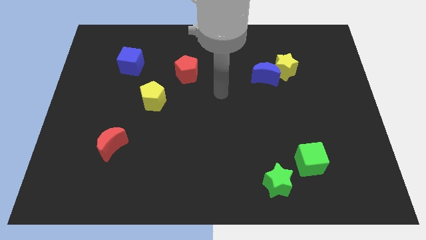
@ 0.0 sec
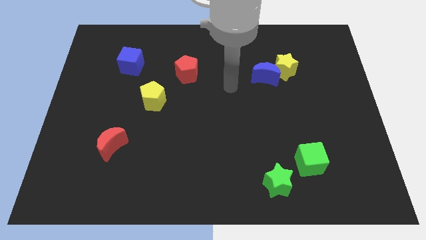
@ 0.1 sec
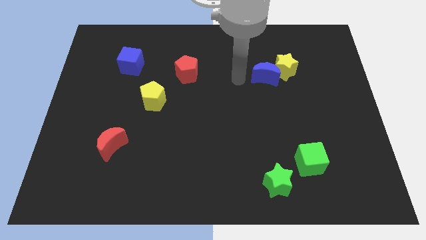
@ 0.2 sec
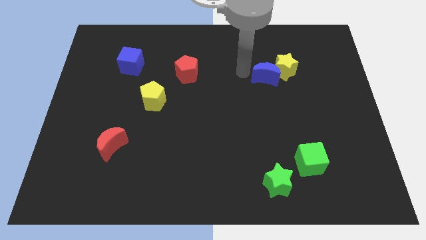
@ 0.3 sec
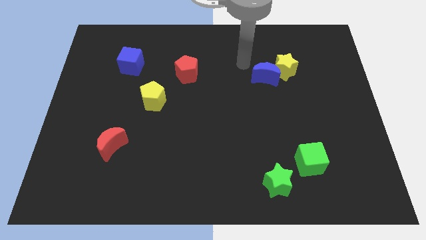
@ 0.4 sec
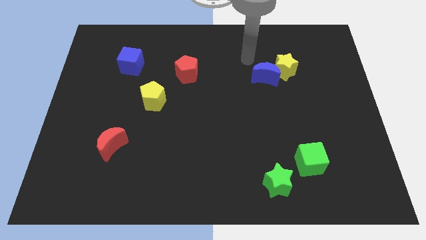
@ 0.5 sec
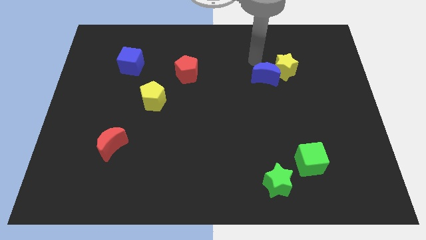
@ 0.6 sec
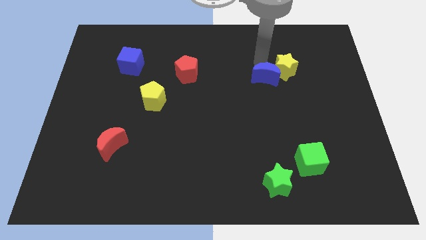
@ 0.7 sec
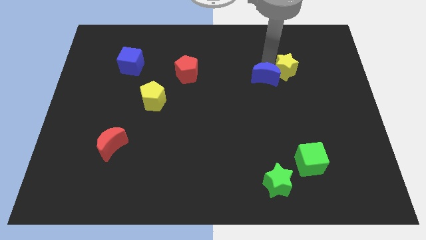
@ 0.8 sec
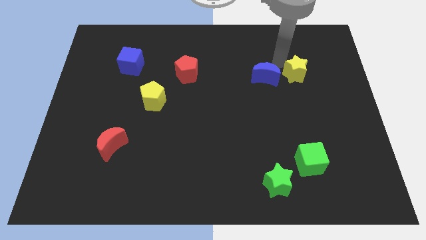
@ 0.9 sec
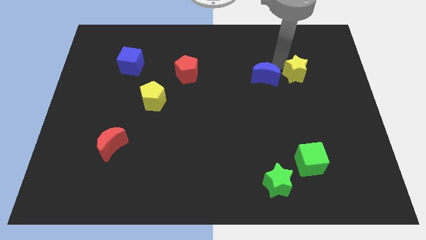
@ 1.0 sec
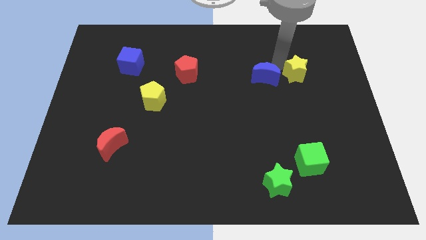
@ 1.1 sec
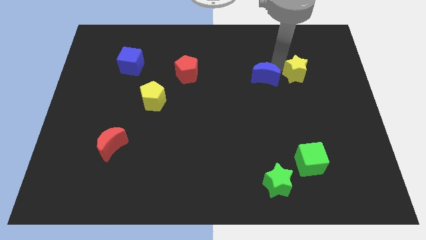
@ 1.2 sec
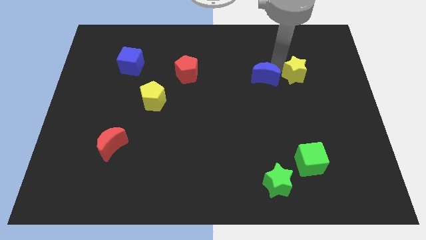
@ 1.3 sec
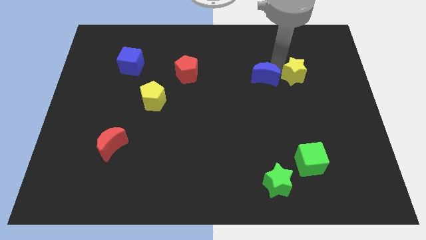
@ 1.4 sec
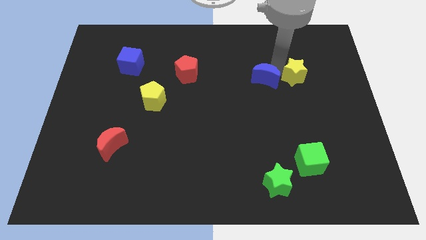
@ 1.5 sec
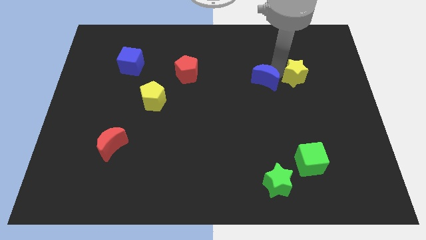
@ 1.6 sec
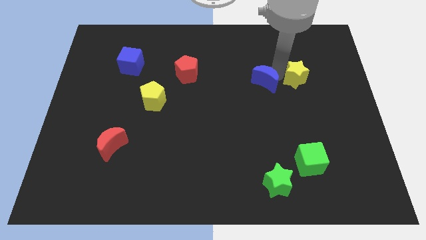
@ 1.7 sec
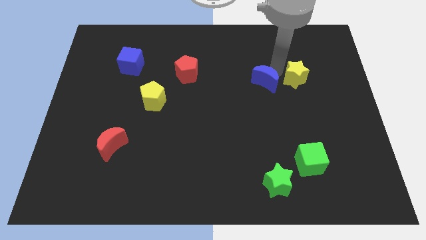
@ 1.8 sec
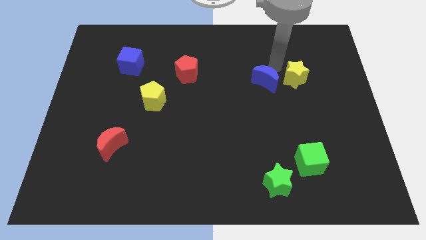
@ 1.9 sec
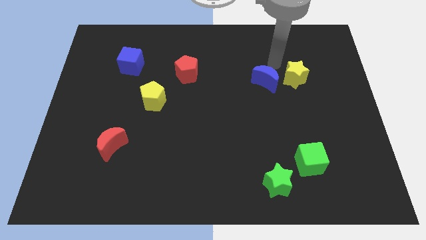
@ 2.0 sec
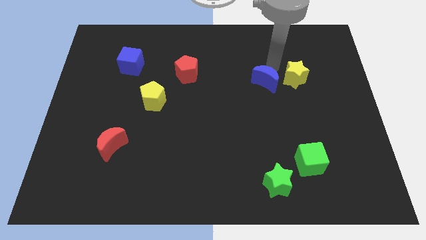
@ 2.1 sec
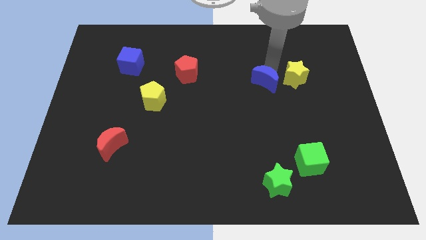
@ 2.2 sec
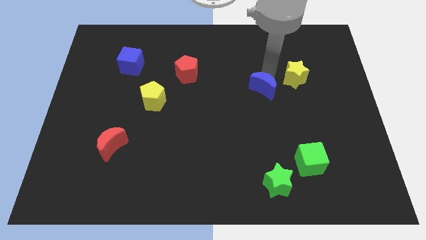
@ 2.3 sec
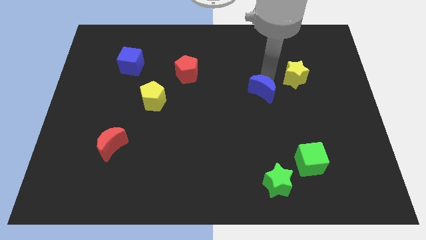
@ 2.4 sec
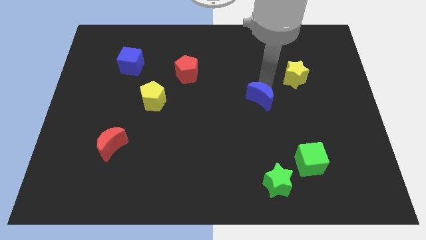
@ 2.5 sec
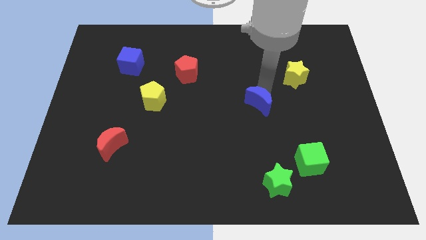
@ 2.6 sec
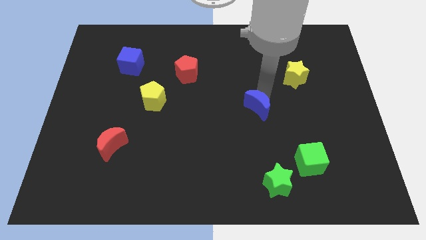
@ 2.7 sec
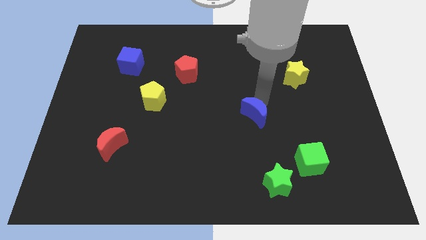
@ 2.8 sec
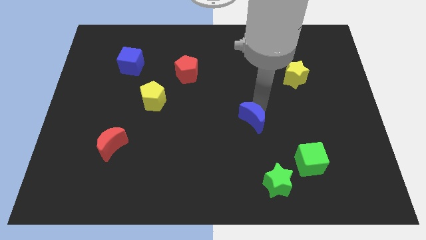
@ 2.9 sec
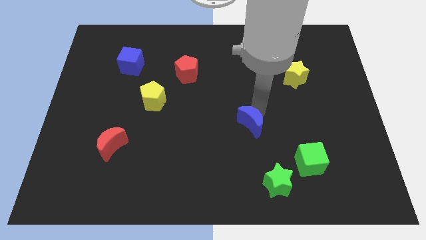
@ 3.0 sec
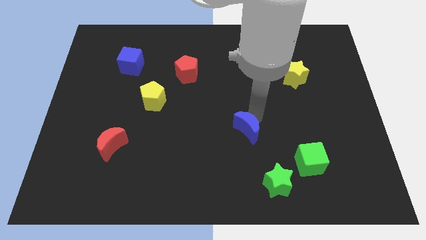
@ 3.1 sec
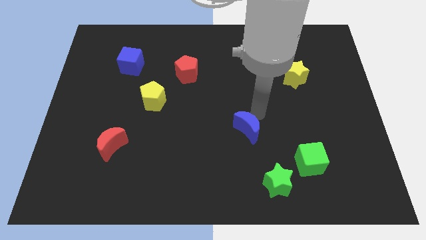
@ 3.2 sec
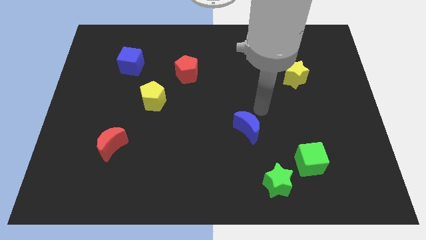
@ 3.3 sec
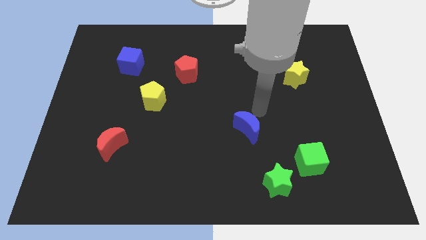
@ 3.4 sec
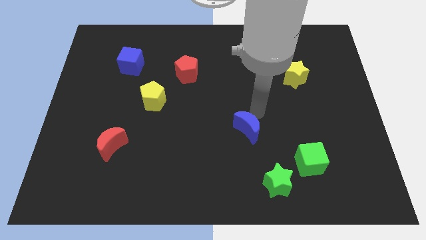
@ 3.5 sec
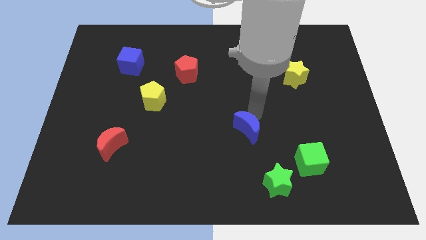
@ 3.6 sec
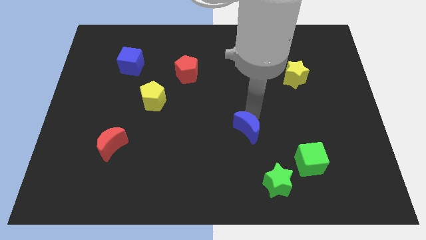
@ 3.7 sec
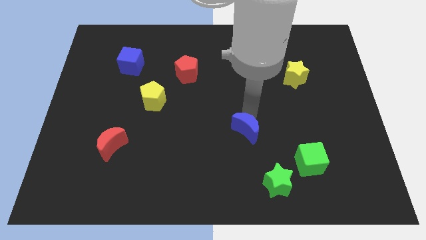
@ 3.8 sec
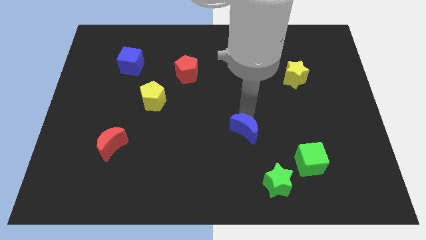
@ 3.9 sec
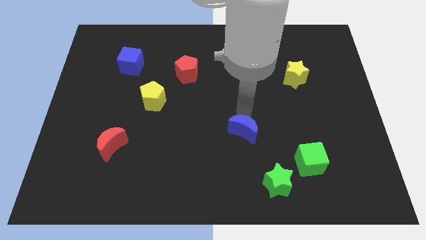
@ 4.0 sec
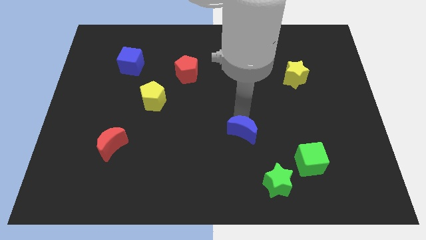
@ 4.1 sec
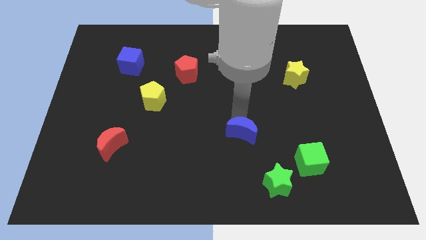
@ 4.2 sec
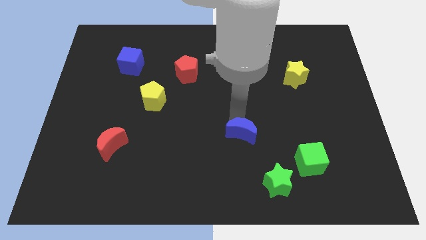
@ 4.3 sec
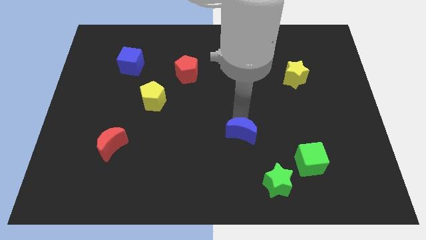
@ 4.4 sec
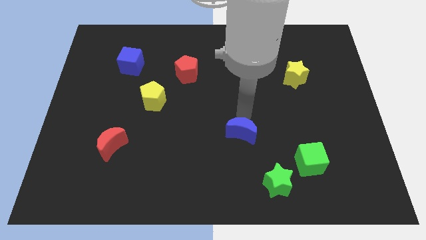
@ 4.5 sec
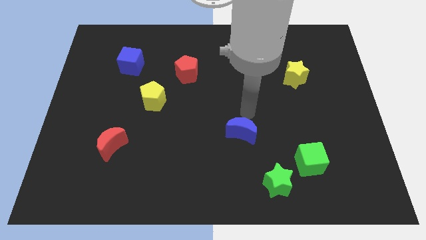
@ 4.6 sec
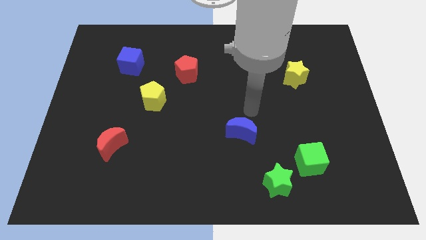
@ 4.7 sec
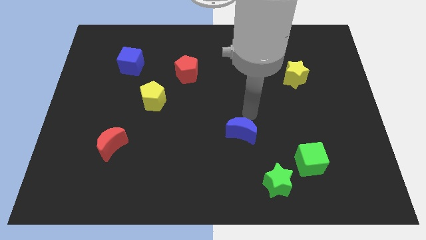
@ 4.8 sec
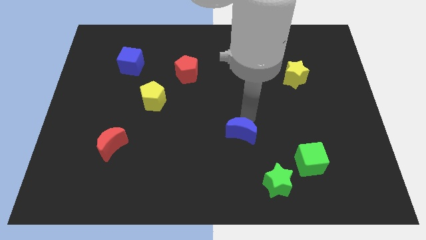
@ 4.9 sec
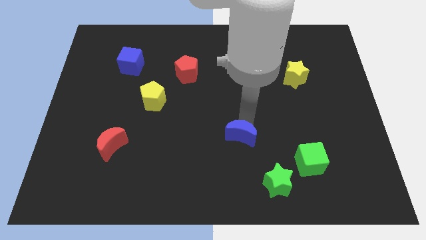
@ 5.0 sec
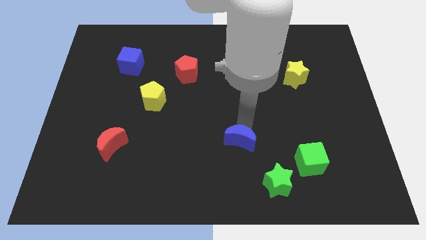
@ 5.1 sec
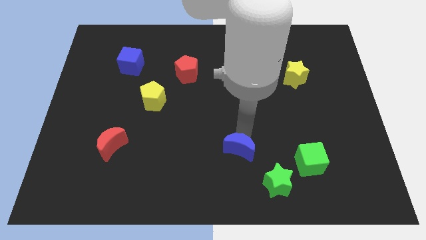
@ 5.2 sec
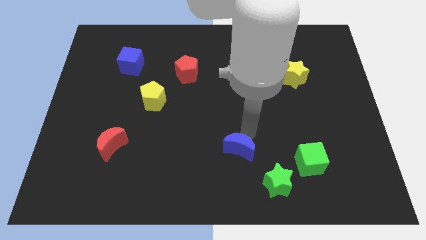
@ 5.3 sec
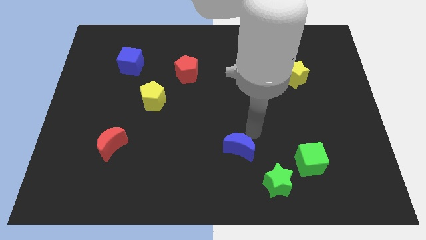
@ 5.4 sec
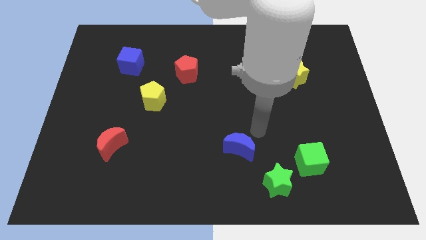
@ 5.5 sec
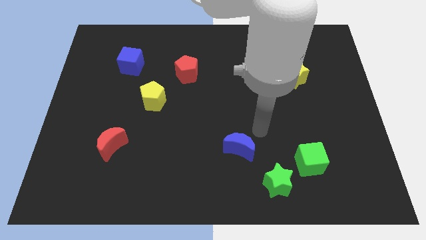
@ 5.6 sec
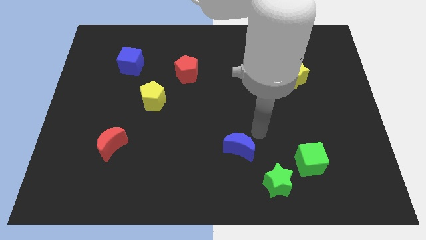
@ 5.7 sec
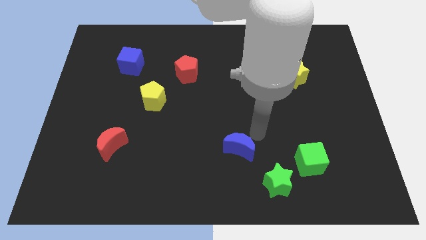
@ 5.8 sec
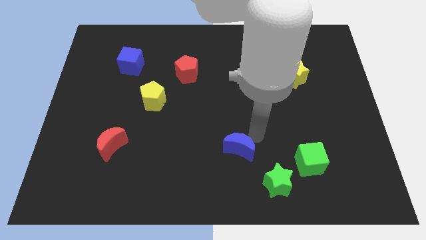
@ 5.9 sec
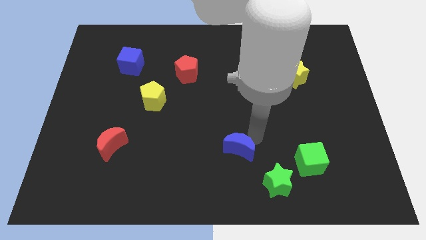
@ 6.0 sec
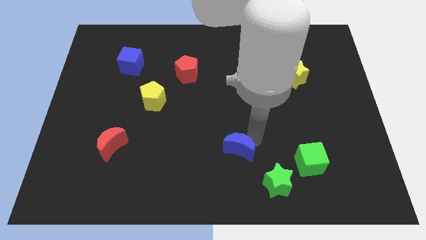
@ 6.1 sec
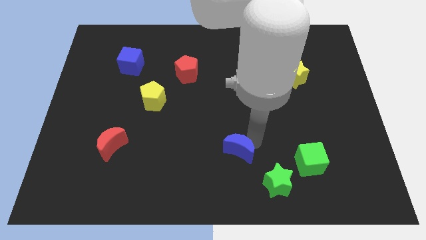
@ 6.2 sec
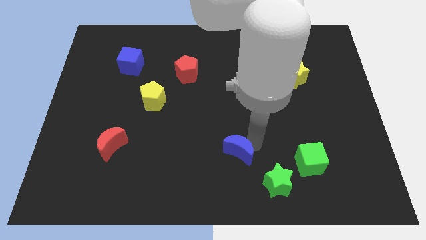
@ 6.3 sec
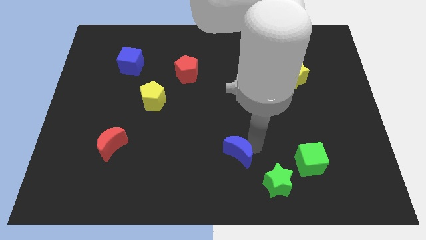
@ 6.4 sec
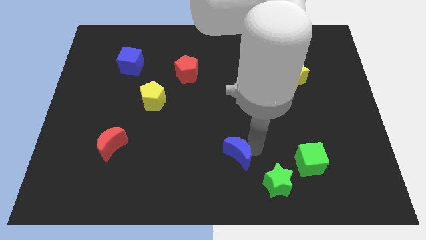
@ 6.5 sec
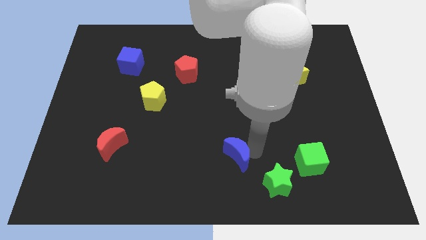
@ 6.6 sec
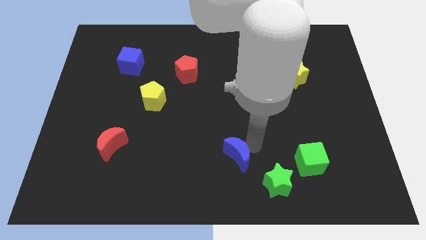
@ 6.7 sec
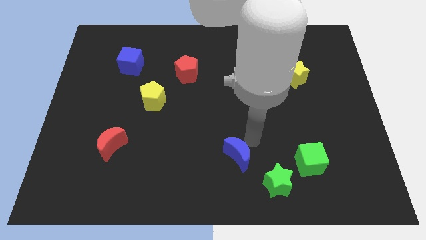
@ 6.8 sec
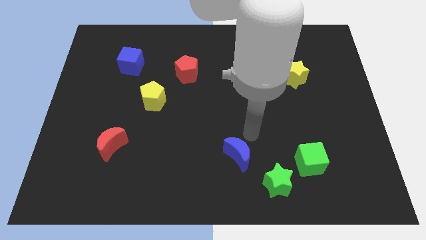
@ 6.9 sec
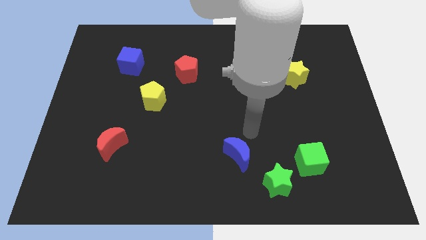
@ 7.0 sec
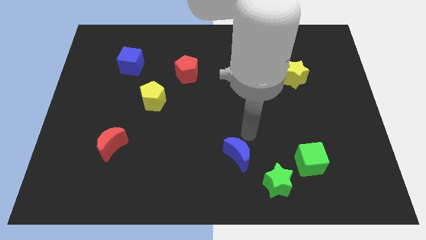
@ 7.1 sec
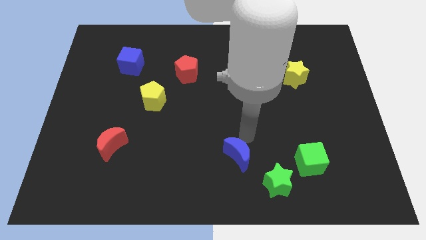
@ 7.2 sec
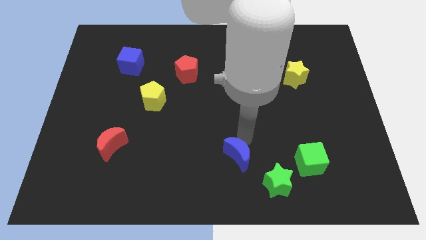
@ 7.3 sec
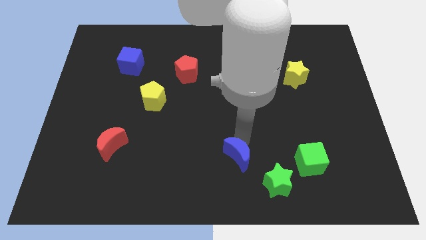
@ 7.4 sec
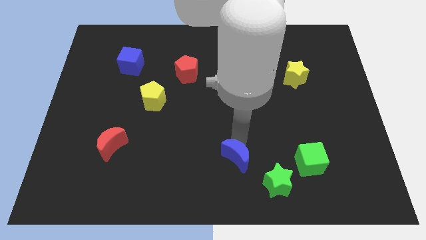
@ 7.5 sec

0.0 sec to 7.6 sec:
put the blue moon to the bottom
